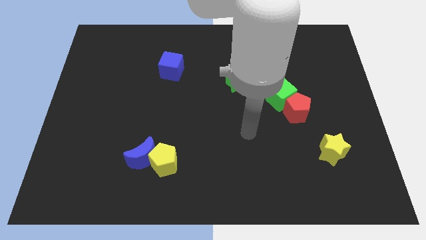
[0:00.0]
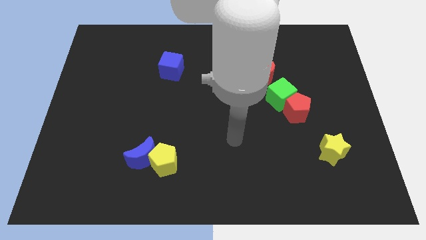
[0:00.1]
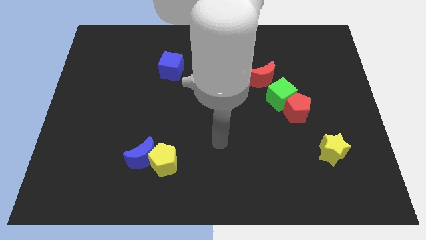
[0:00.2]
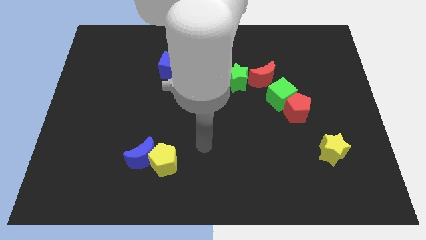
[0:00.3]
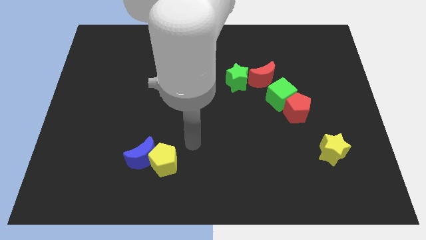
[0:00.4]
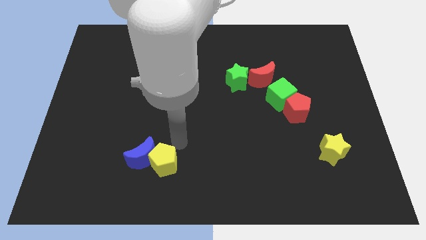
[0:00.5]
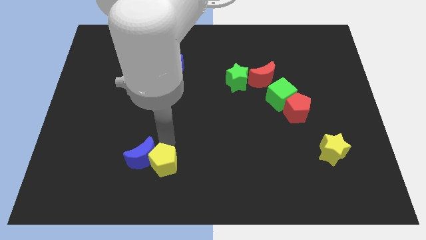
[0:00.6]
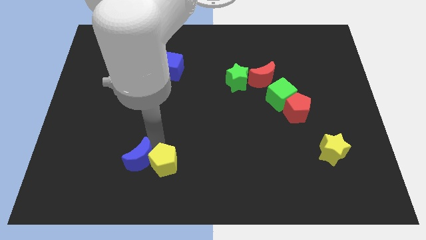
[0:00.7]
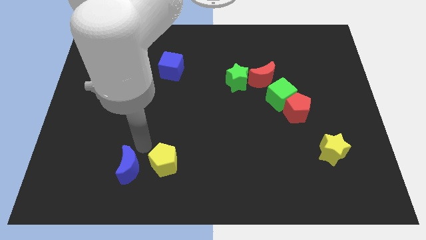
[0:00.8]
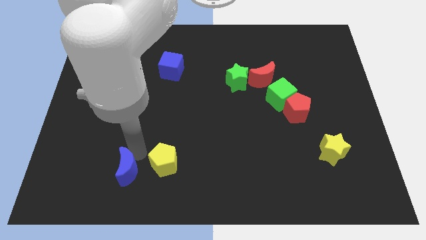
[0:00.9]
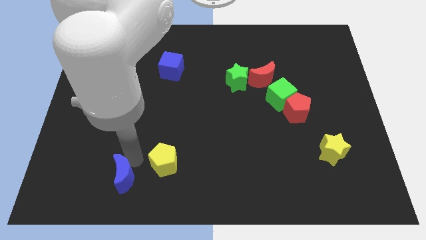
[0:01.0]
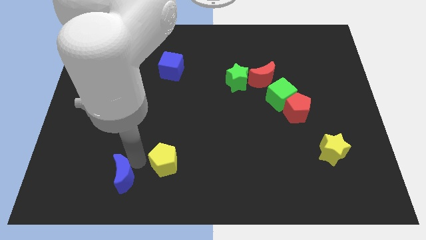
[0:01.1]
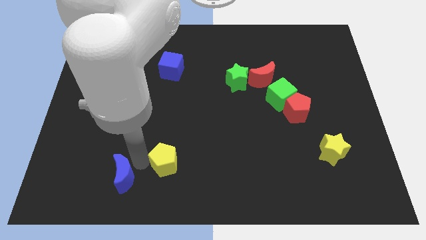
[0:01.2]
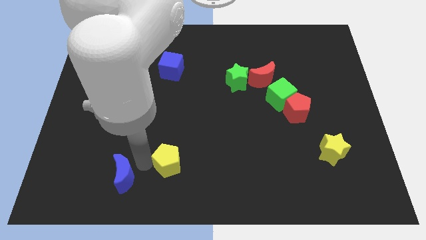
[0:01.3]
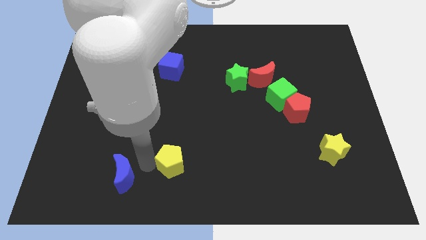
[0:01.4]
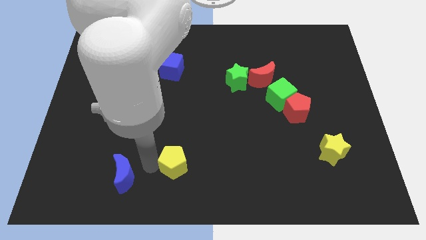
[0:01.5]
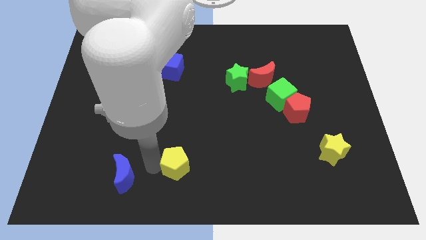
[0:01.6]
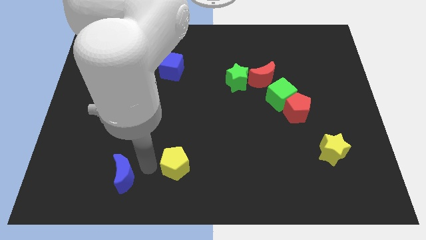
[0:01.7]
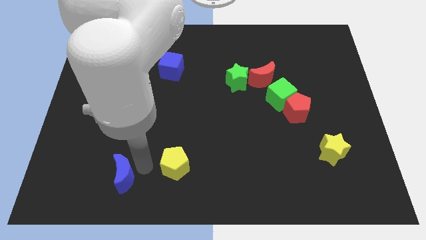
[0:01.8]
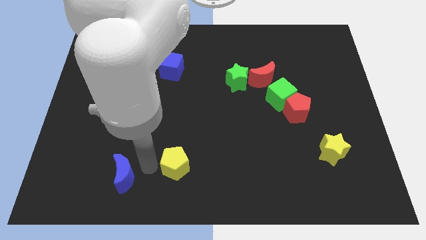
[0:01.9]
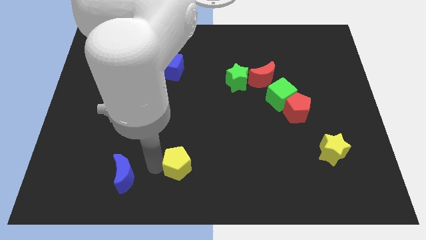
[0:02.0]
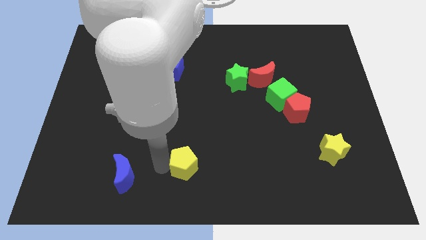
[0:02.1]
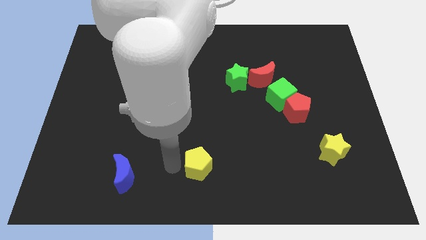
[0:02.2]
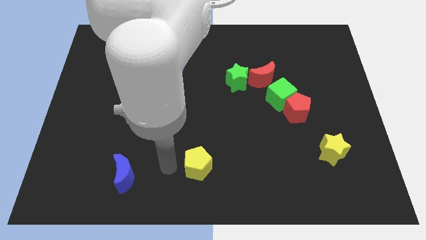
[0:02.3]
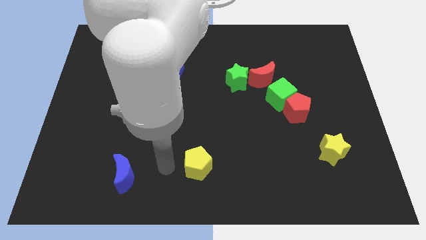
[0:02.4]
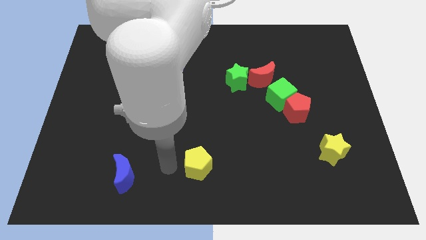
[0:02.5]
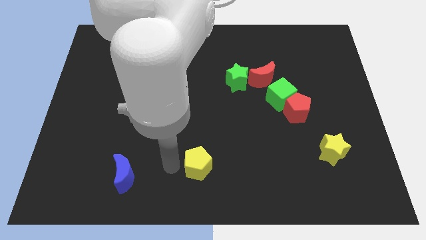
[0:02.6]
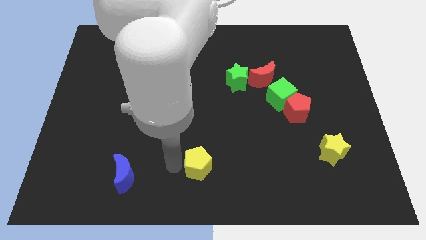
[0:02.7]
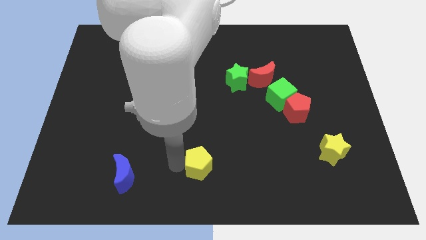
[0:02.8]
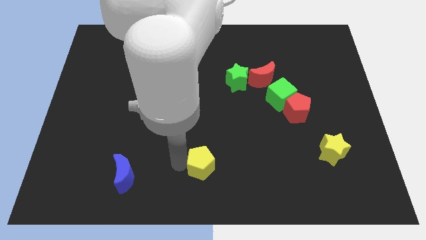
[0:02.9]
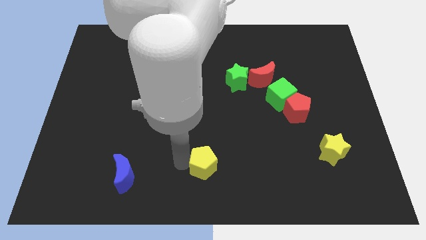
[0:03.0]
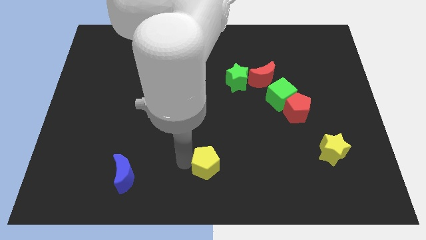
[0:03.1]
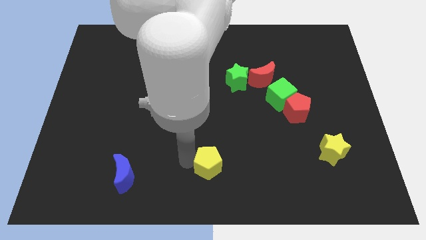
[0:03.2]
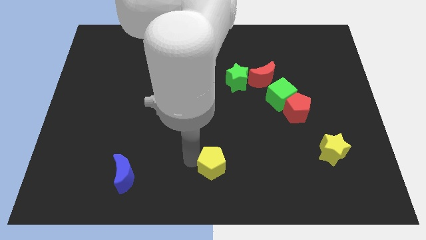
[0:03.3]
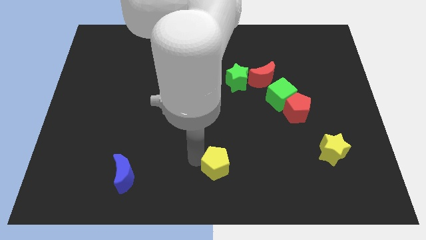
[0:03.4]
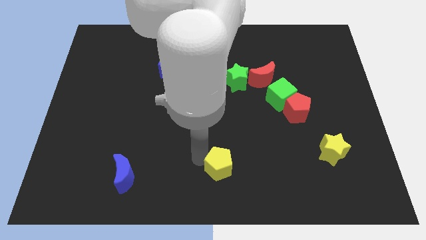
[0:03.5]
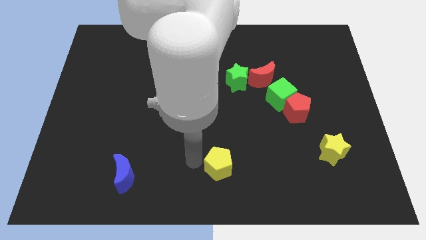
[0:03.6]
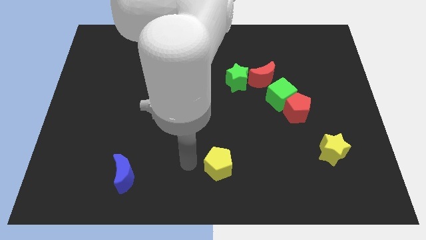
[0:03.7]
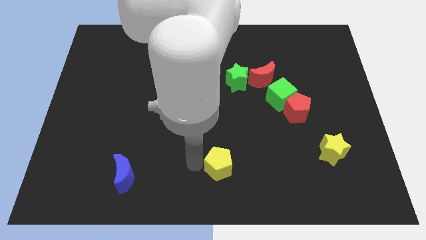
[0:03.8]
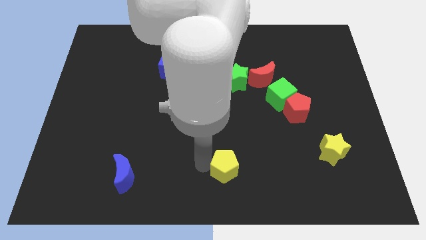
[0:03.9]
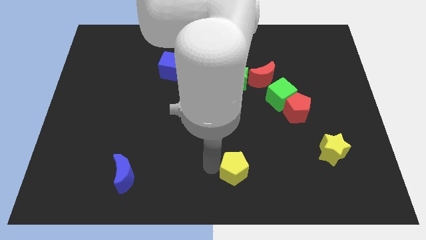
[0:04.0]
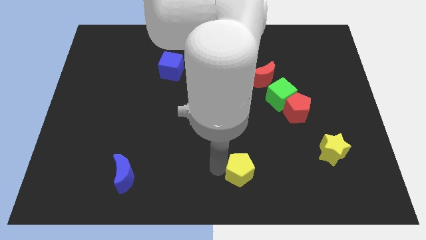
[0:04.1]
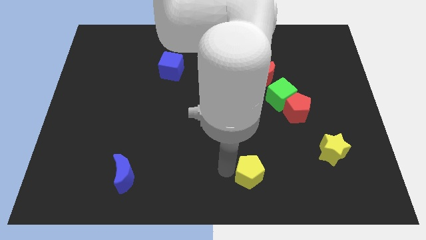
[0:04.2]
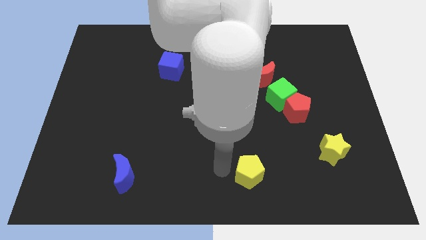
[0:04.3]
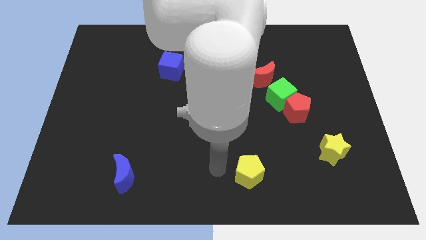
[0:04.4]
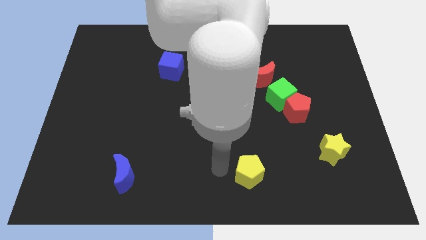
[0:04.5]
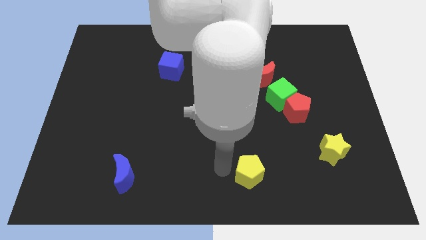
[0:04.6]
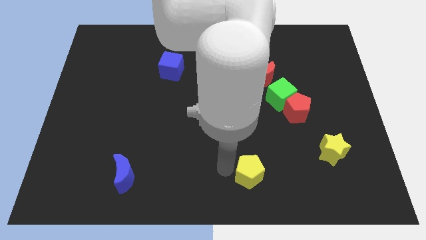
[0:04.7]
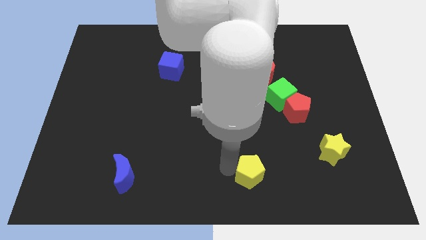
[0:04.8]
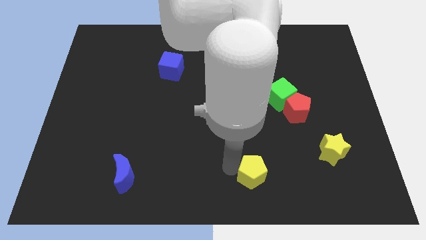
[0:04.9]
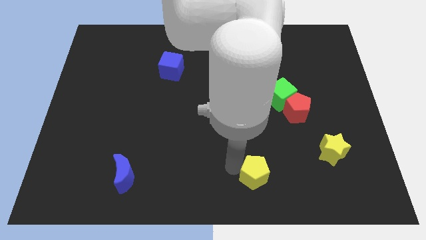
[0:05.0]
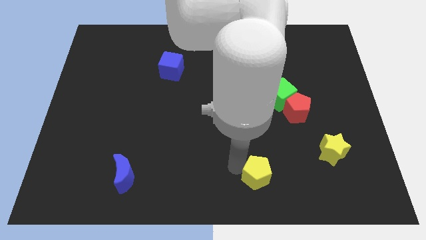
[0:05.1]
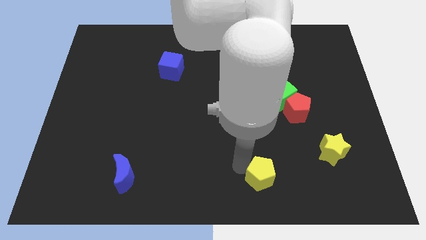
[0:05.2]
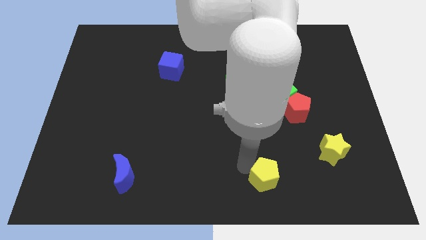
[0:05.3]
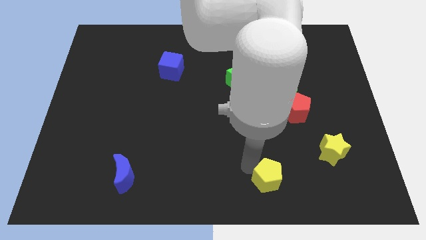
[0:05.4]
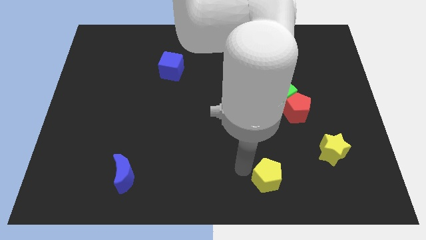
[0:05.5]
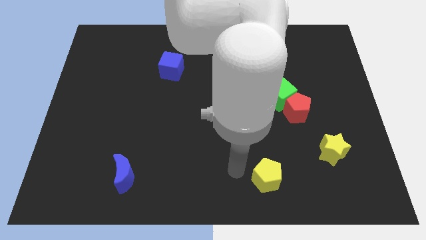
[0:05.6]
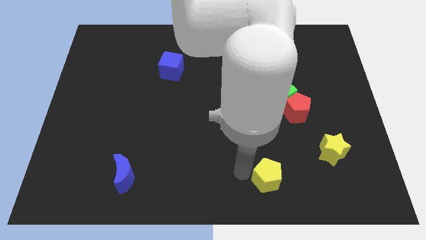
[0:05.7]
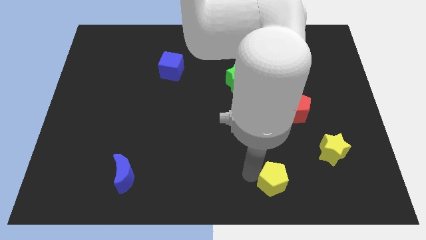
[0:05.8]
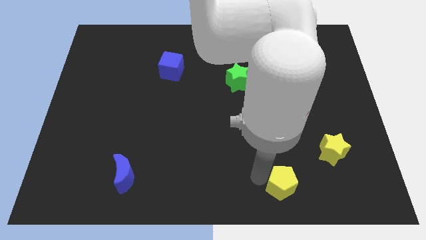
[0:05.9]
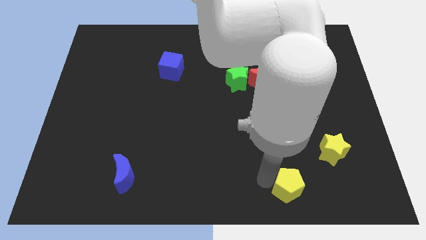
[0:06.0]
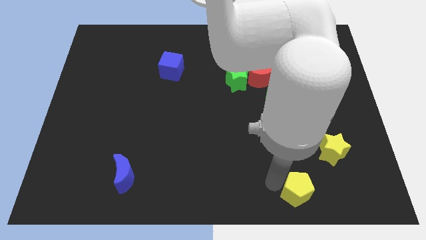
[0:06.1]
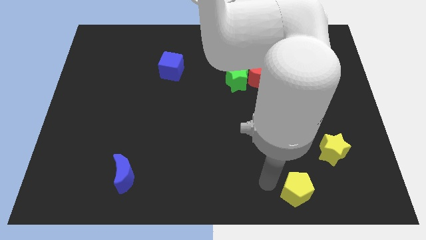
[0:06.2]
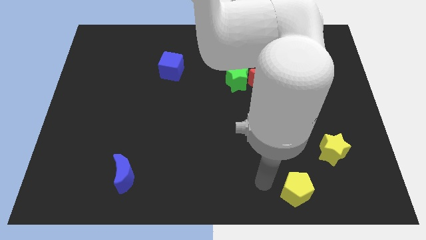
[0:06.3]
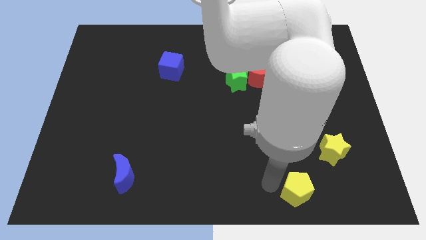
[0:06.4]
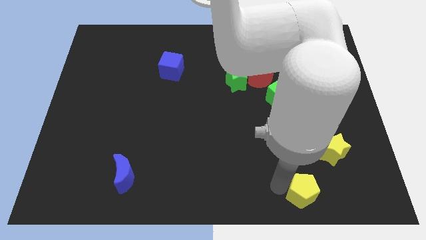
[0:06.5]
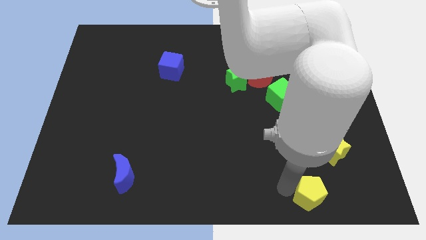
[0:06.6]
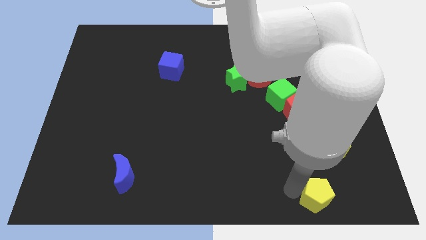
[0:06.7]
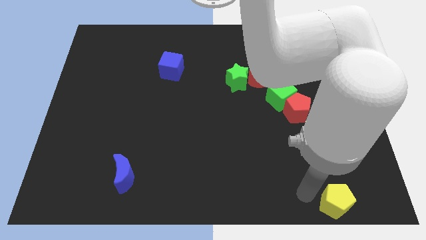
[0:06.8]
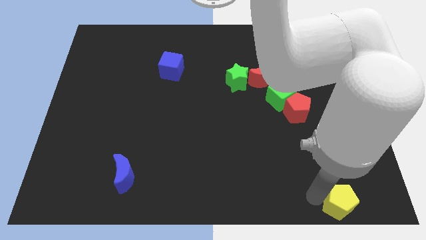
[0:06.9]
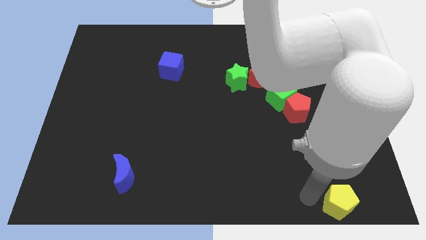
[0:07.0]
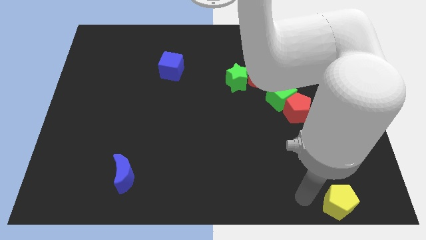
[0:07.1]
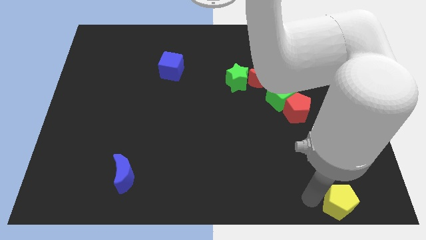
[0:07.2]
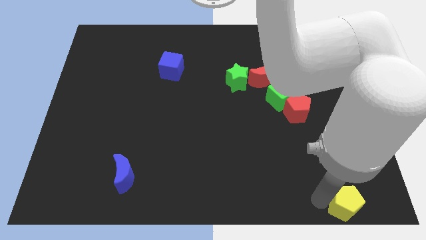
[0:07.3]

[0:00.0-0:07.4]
put the yellow pentagon to the bottom right
